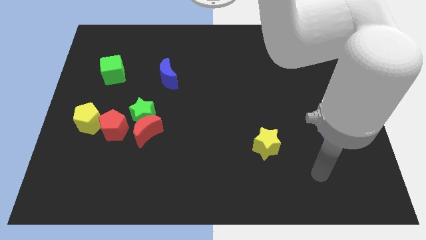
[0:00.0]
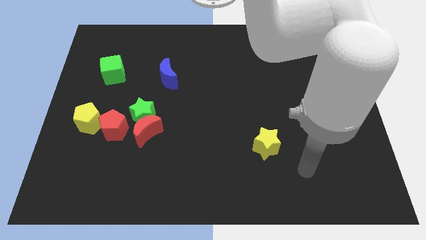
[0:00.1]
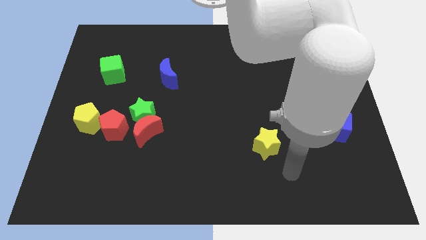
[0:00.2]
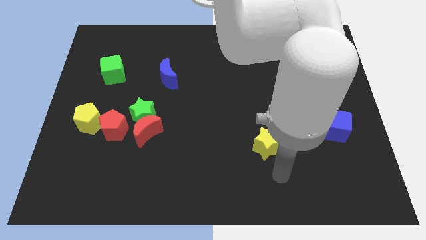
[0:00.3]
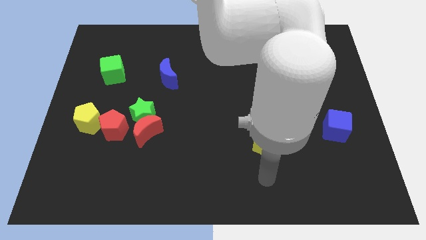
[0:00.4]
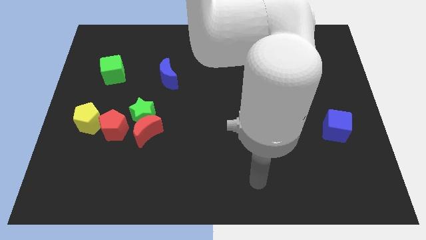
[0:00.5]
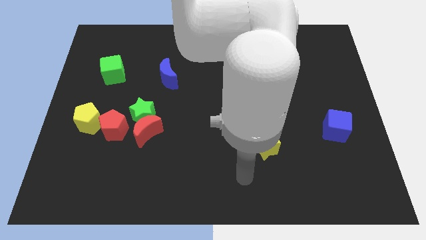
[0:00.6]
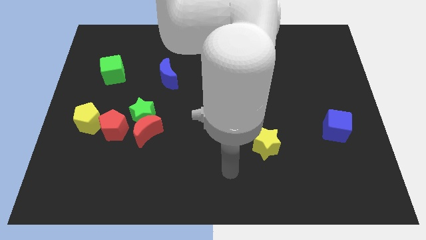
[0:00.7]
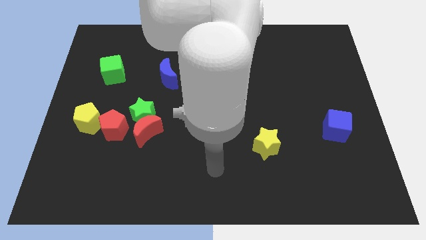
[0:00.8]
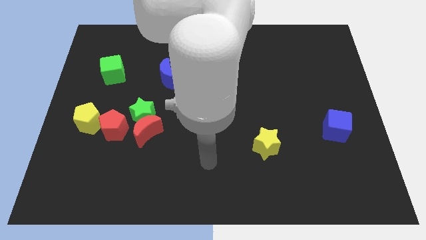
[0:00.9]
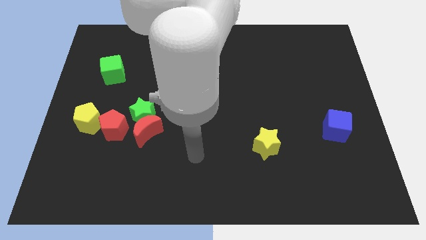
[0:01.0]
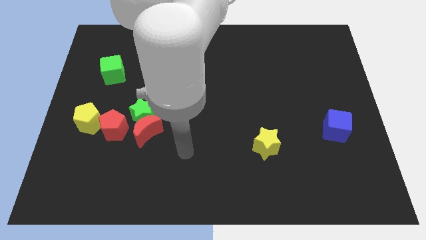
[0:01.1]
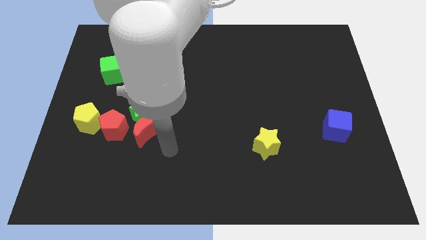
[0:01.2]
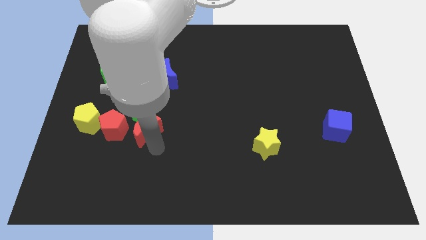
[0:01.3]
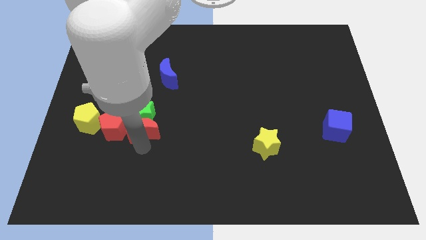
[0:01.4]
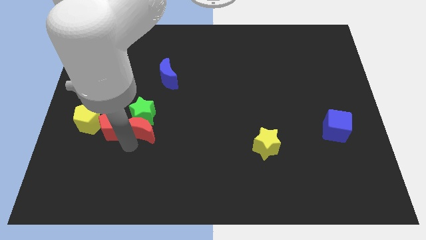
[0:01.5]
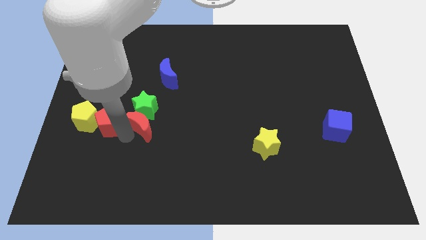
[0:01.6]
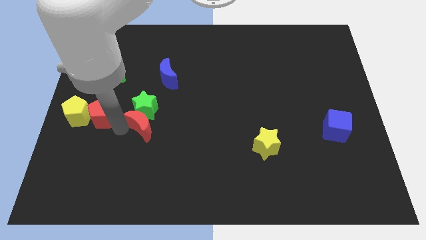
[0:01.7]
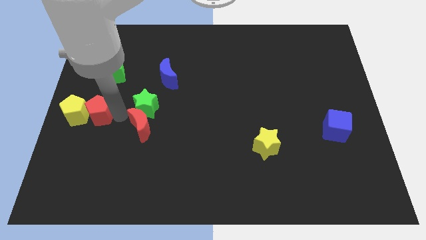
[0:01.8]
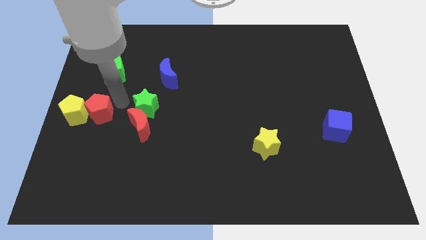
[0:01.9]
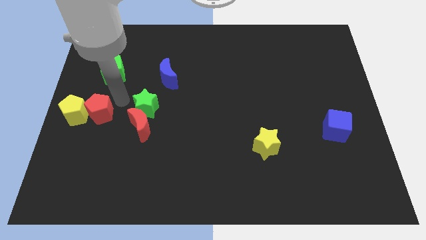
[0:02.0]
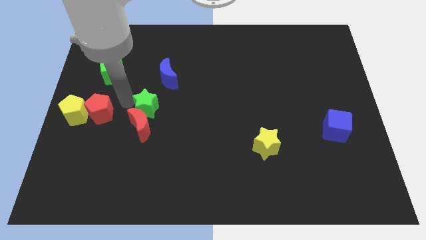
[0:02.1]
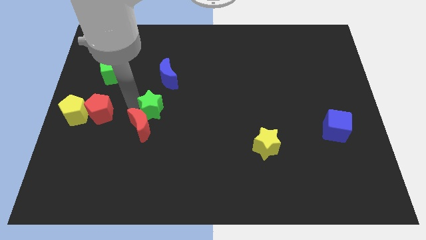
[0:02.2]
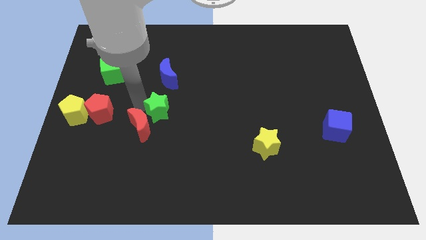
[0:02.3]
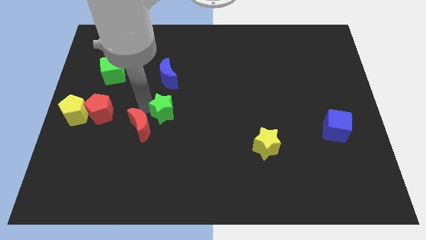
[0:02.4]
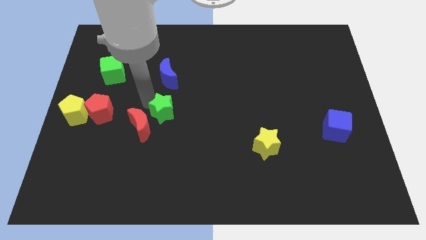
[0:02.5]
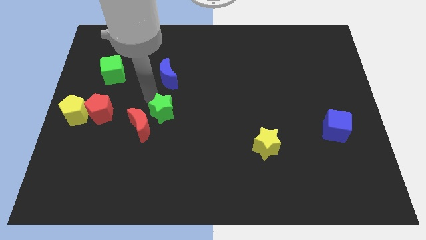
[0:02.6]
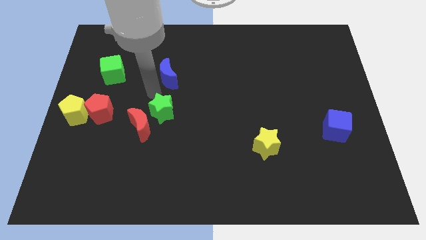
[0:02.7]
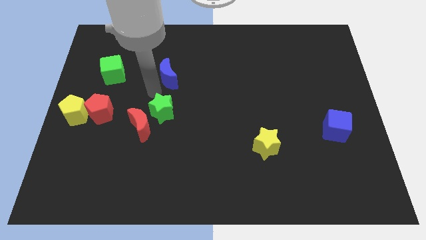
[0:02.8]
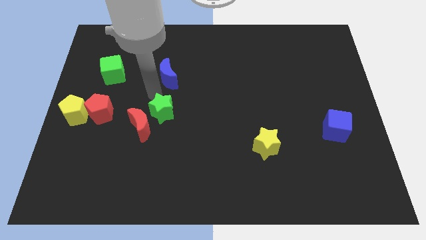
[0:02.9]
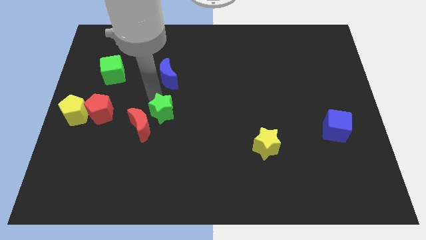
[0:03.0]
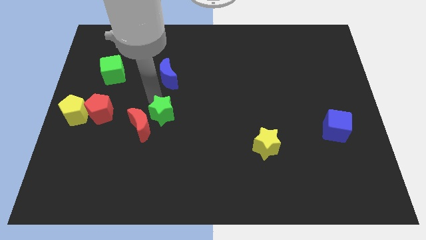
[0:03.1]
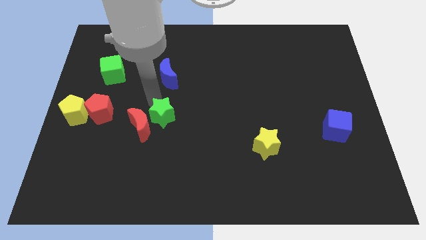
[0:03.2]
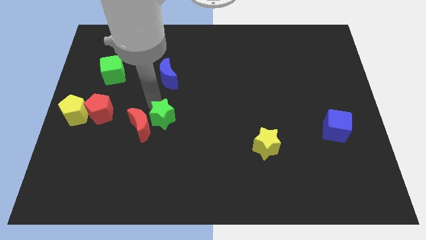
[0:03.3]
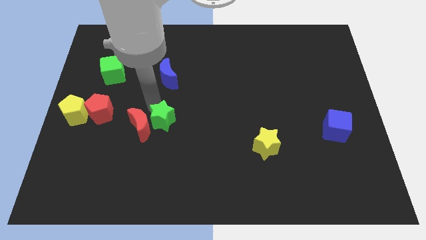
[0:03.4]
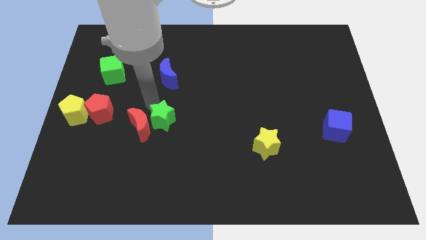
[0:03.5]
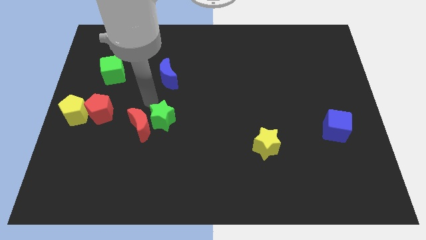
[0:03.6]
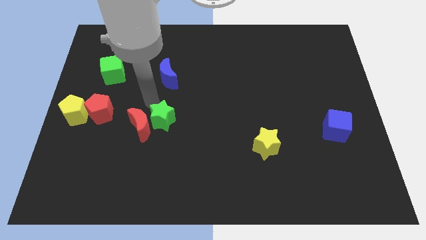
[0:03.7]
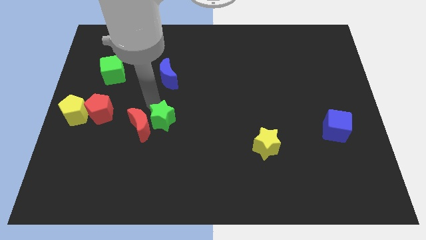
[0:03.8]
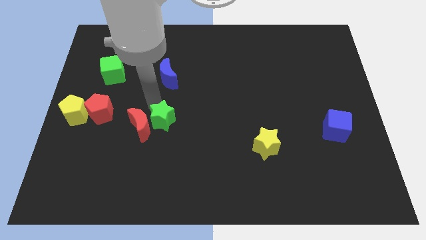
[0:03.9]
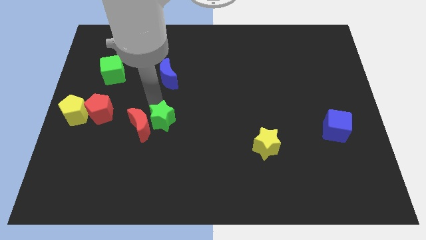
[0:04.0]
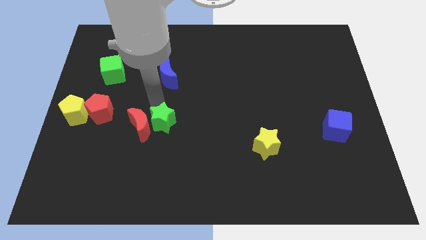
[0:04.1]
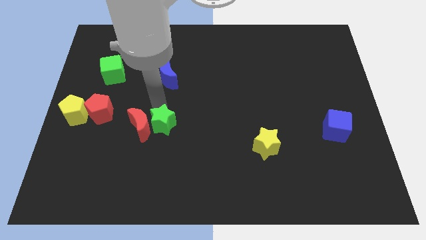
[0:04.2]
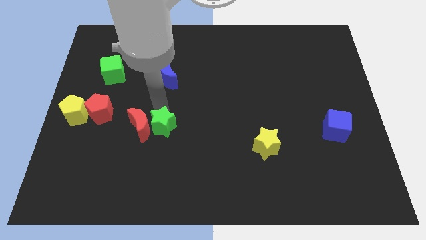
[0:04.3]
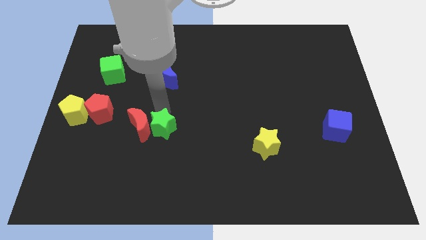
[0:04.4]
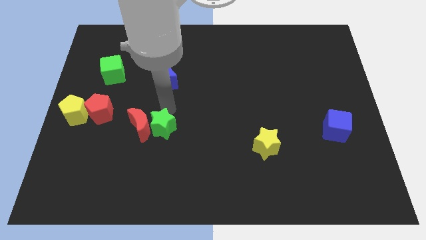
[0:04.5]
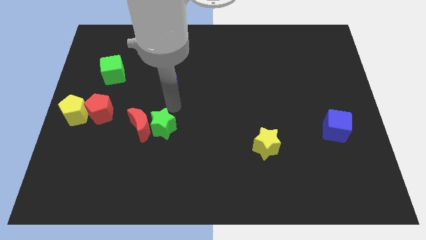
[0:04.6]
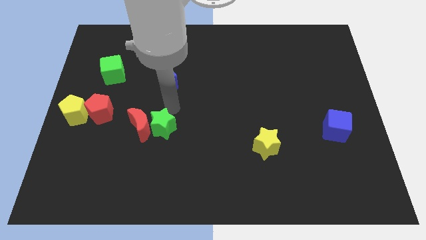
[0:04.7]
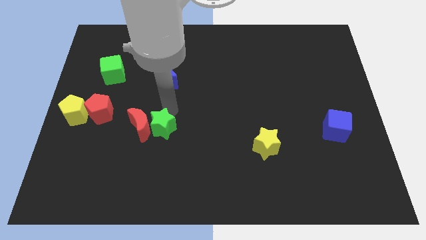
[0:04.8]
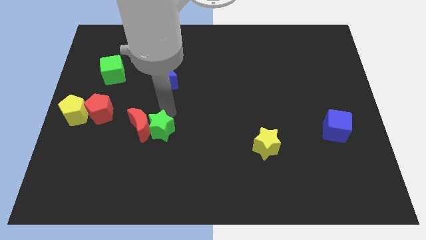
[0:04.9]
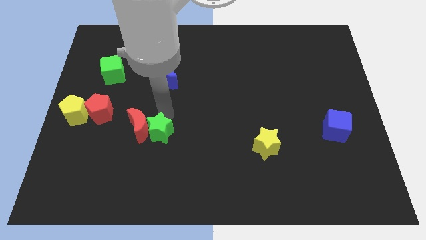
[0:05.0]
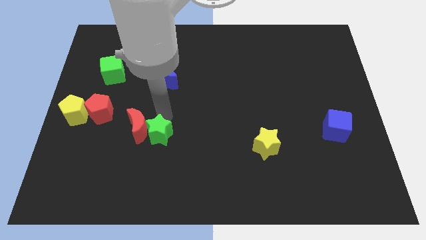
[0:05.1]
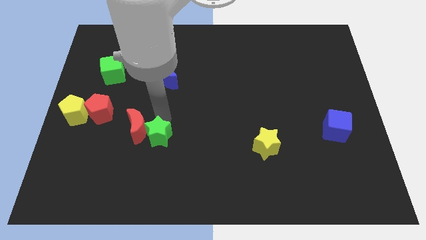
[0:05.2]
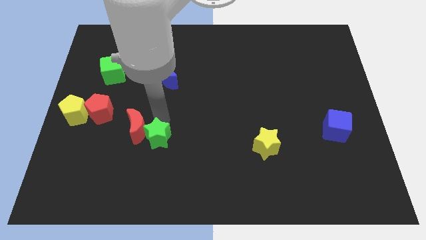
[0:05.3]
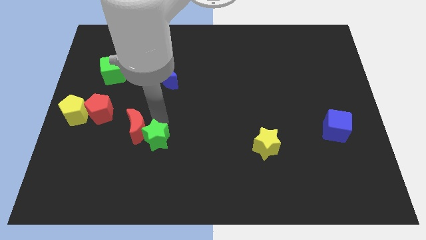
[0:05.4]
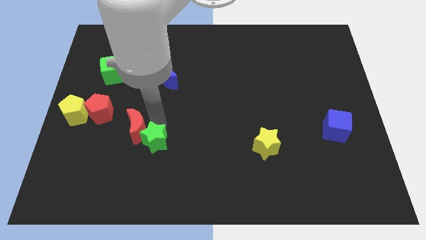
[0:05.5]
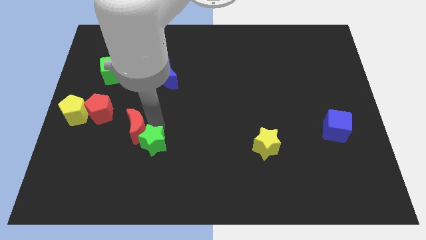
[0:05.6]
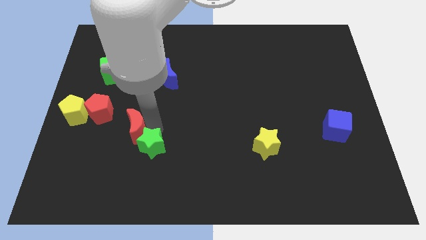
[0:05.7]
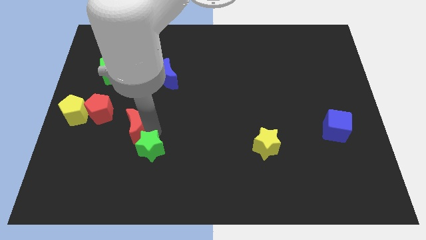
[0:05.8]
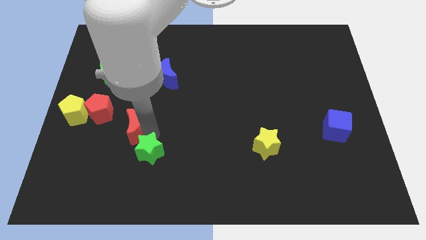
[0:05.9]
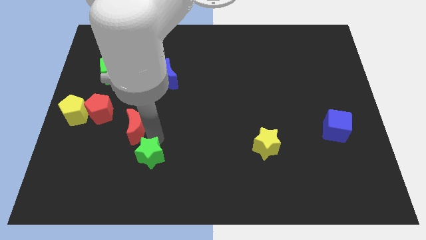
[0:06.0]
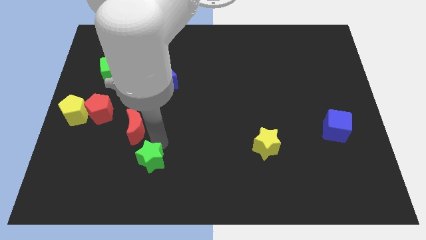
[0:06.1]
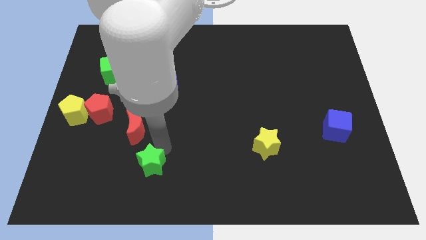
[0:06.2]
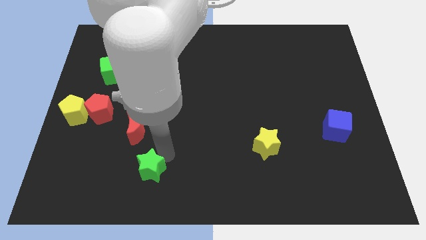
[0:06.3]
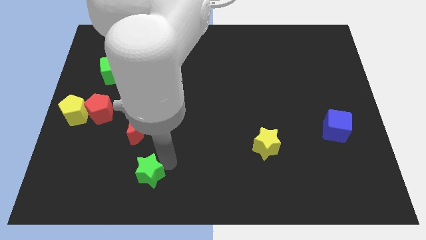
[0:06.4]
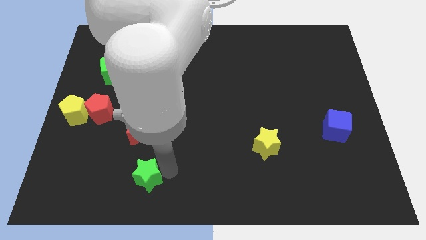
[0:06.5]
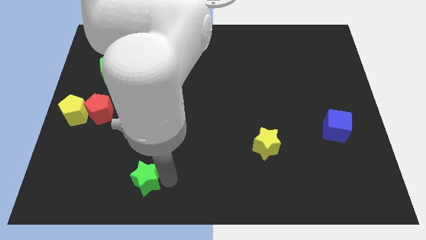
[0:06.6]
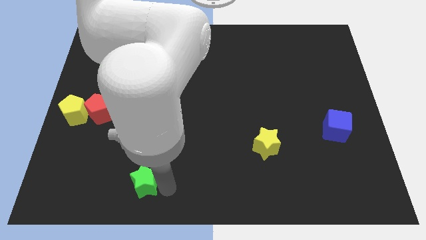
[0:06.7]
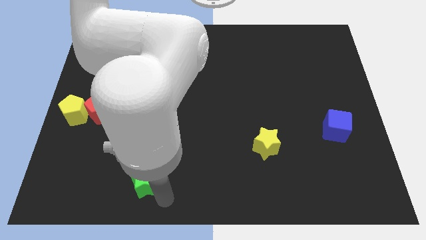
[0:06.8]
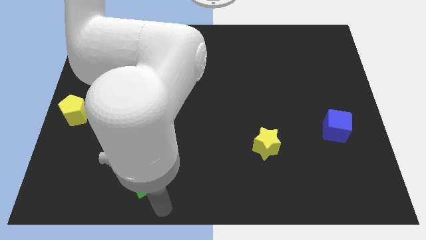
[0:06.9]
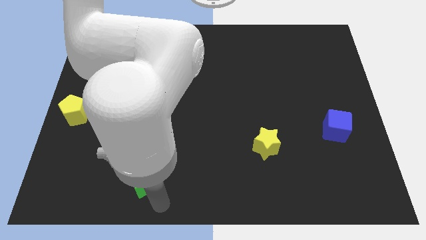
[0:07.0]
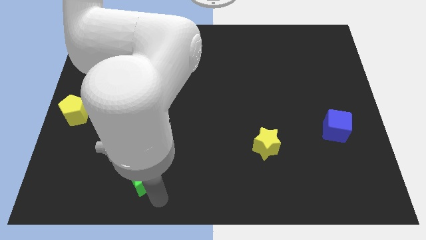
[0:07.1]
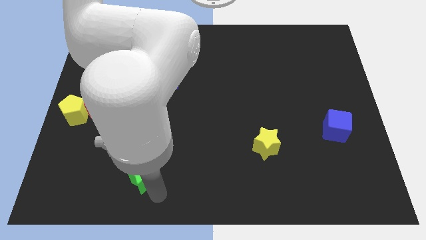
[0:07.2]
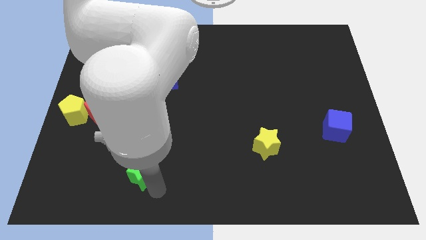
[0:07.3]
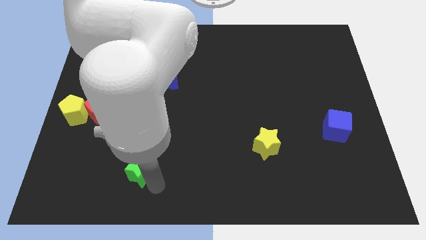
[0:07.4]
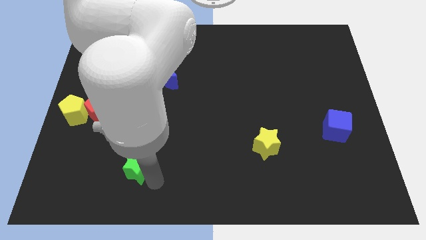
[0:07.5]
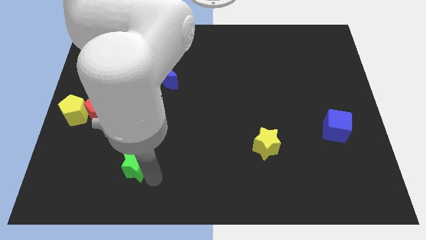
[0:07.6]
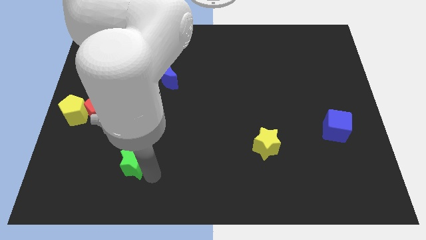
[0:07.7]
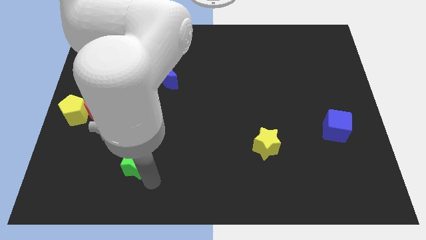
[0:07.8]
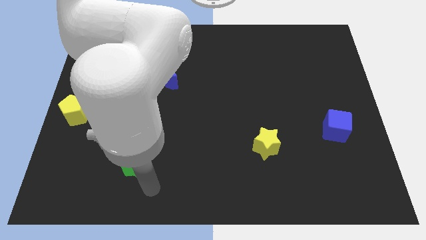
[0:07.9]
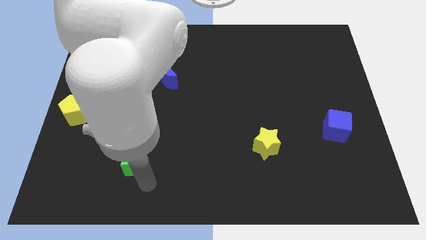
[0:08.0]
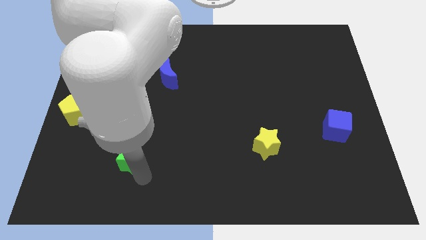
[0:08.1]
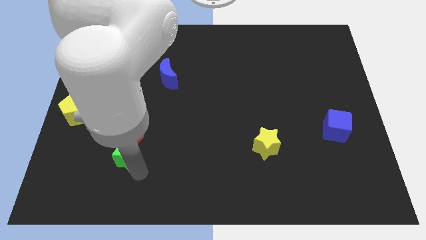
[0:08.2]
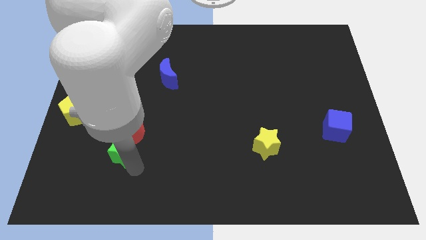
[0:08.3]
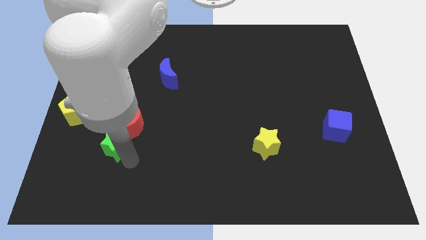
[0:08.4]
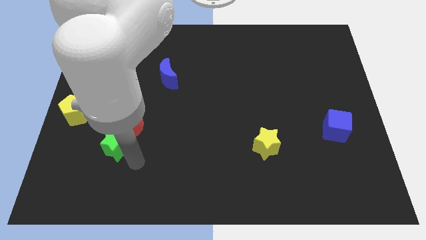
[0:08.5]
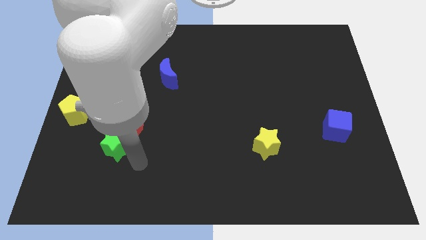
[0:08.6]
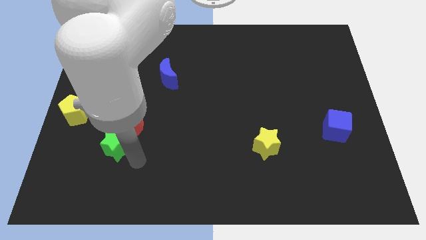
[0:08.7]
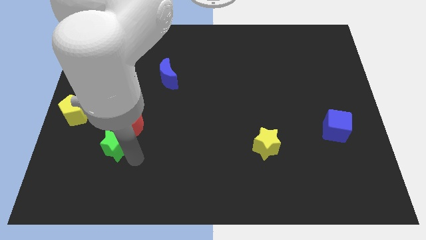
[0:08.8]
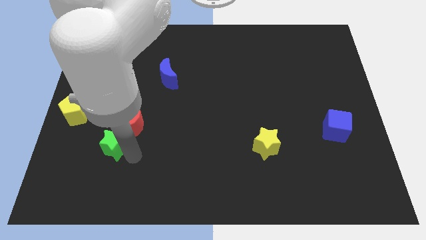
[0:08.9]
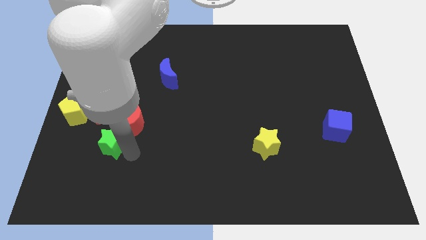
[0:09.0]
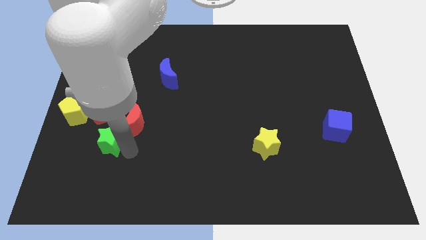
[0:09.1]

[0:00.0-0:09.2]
put the green star to the bottom right side of the yellow pentagon
